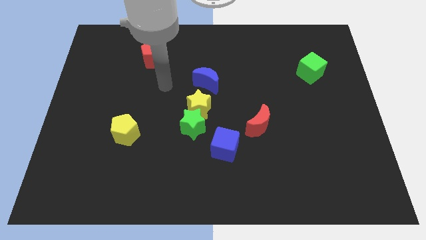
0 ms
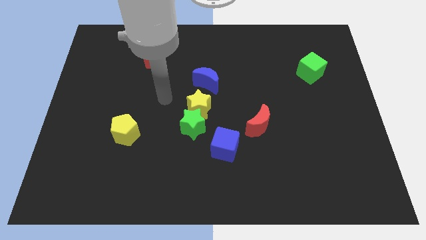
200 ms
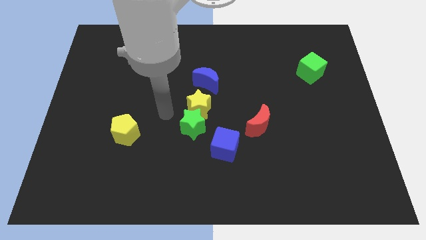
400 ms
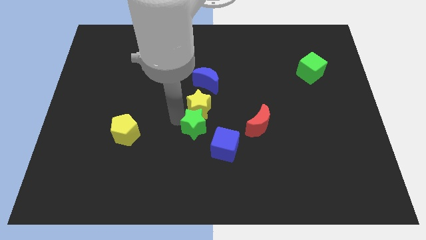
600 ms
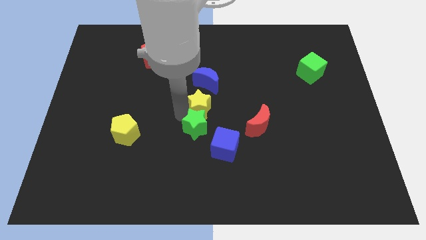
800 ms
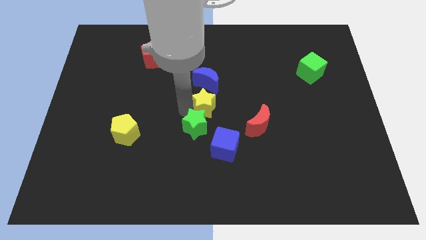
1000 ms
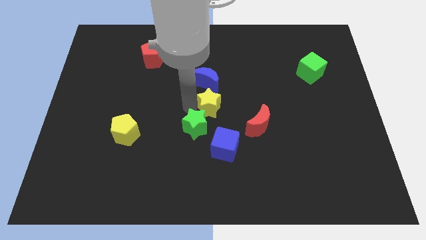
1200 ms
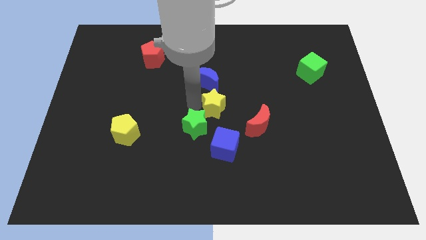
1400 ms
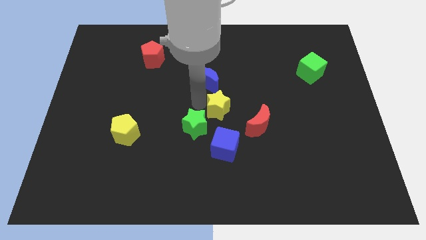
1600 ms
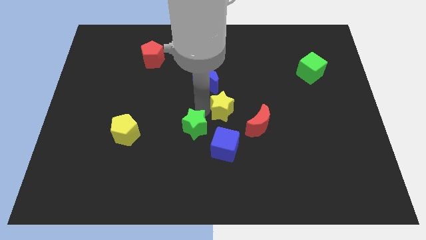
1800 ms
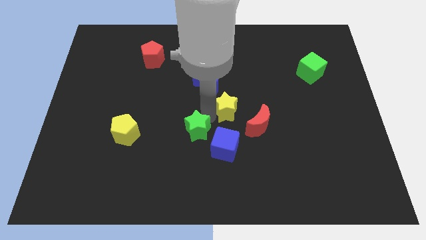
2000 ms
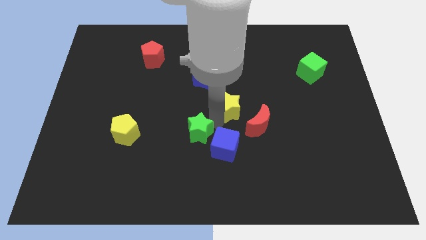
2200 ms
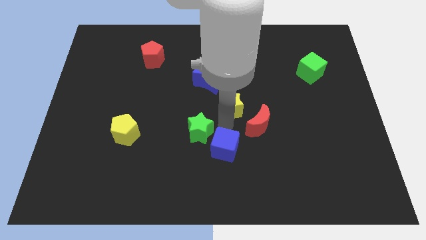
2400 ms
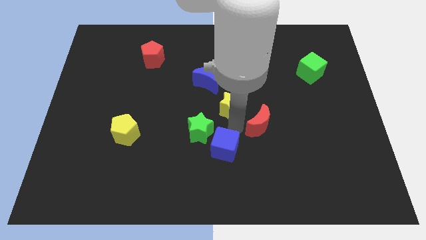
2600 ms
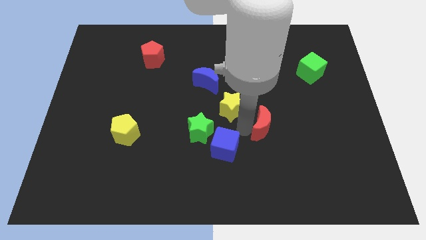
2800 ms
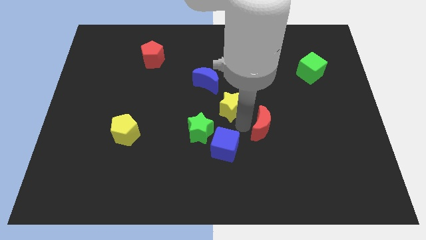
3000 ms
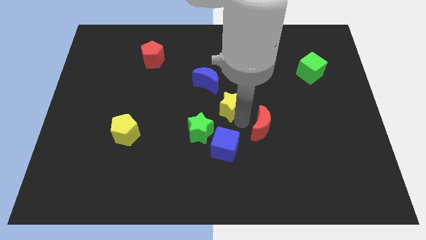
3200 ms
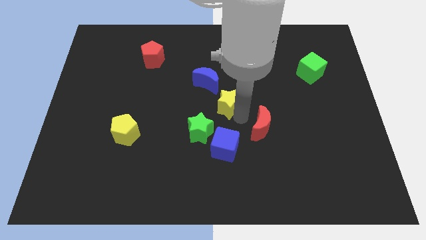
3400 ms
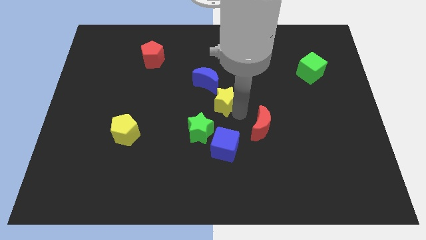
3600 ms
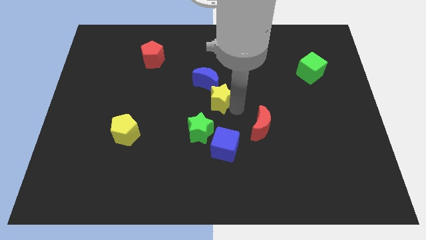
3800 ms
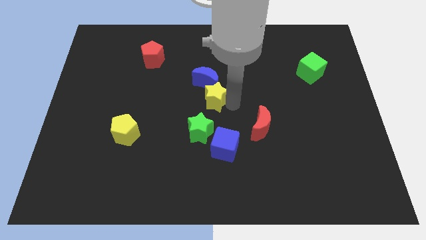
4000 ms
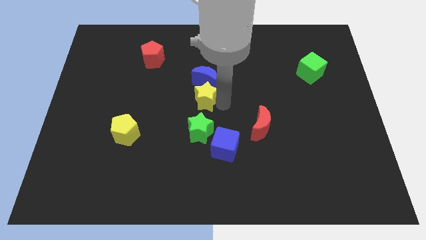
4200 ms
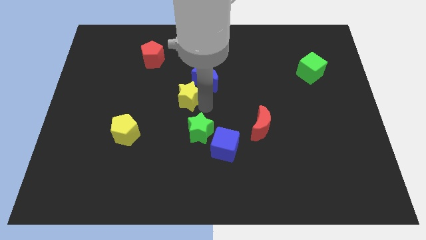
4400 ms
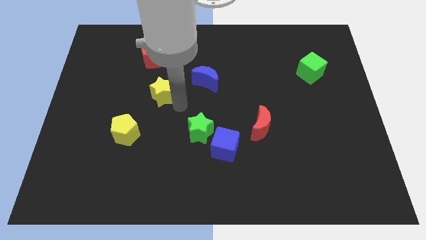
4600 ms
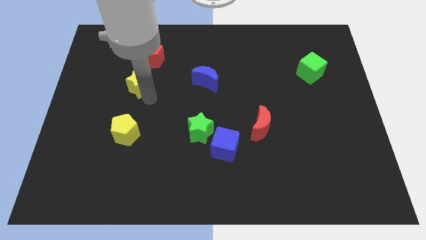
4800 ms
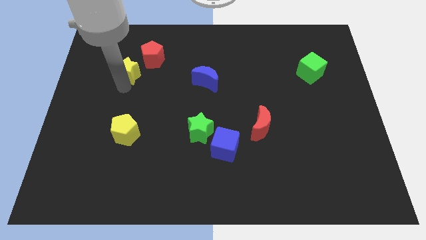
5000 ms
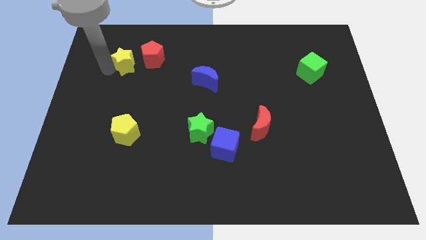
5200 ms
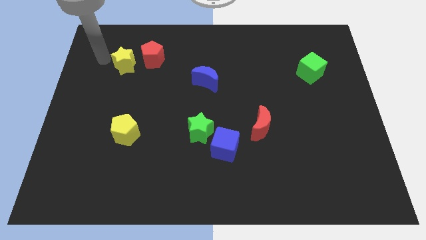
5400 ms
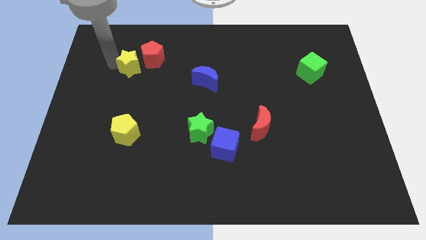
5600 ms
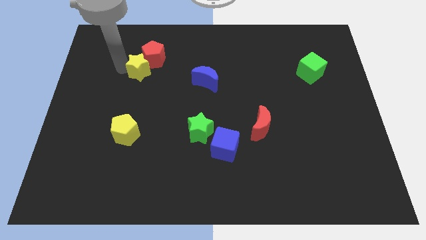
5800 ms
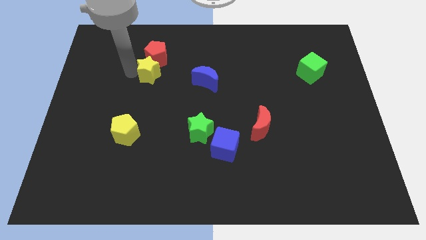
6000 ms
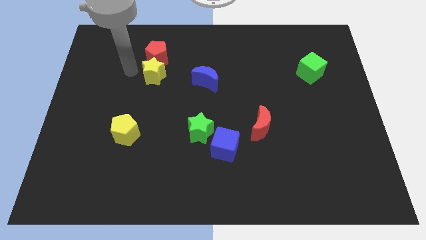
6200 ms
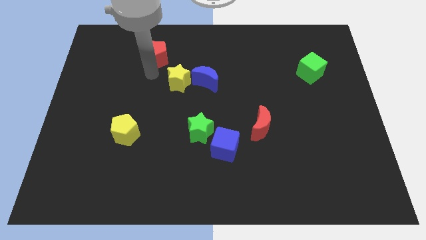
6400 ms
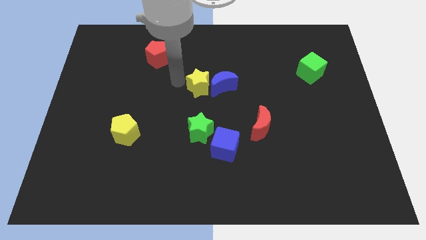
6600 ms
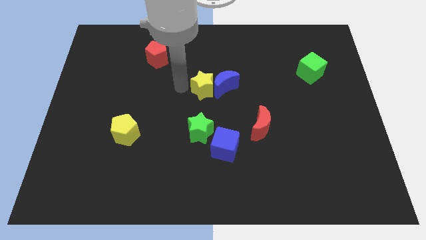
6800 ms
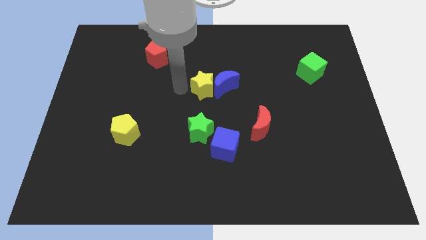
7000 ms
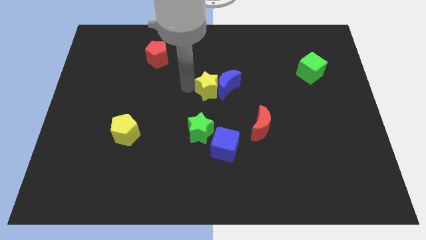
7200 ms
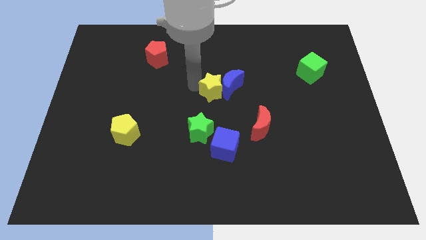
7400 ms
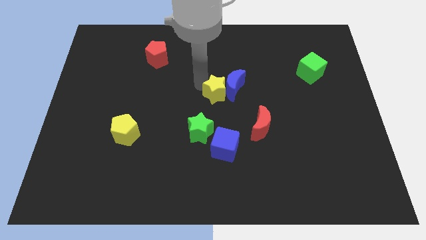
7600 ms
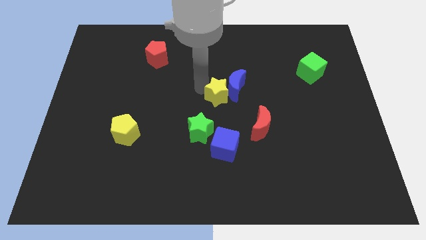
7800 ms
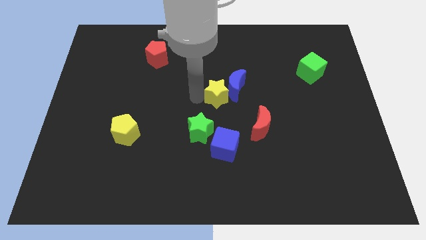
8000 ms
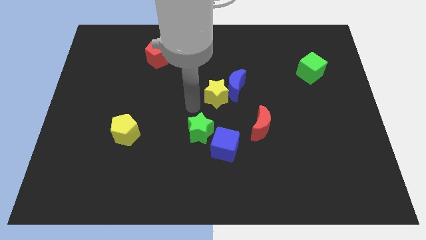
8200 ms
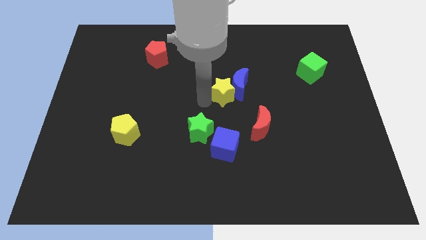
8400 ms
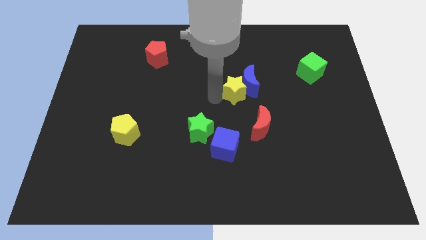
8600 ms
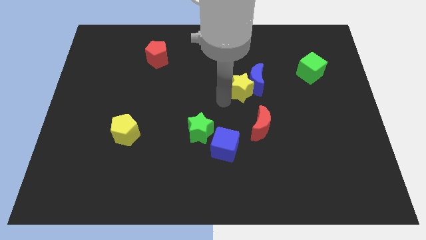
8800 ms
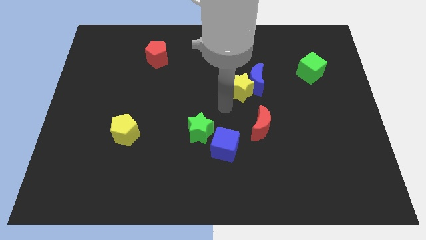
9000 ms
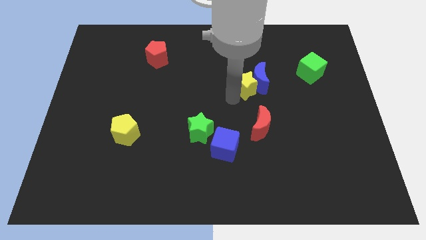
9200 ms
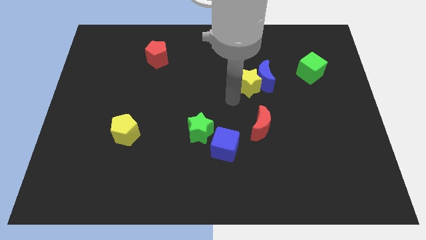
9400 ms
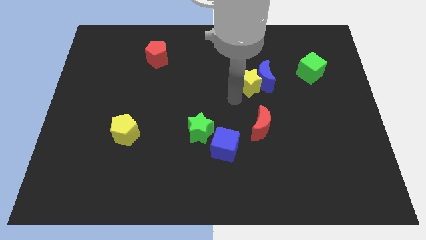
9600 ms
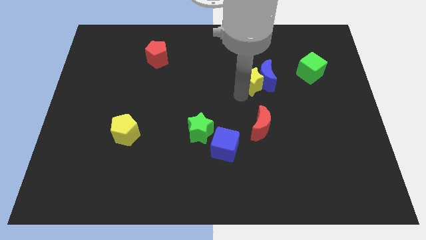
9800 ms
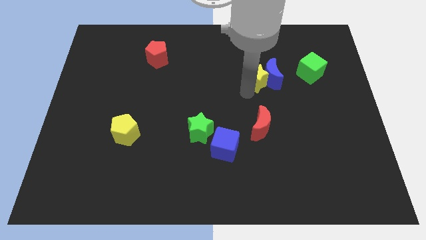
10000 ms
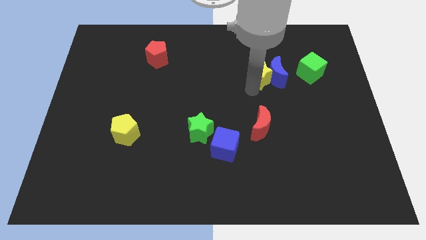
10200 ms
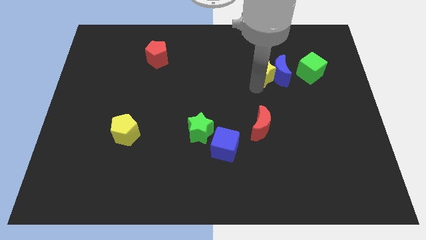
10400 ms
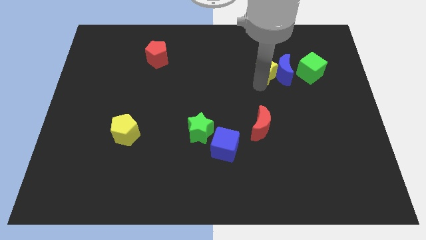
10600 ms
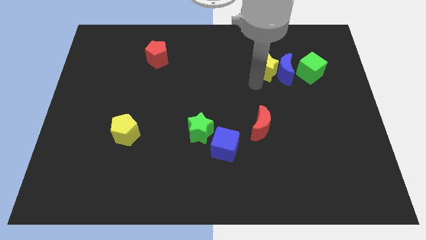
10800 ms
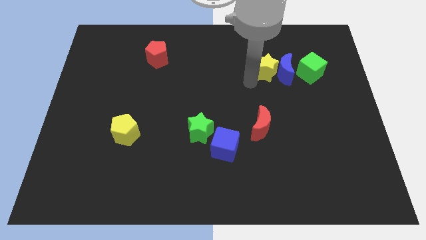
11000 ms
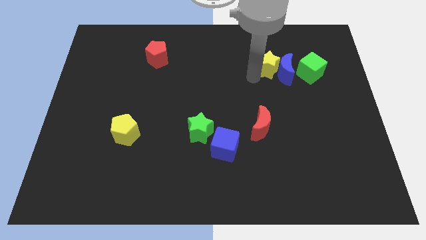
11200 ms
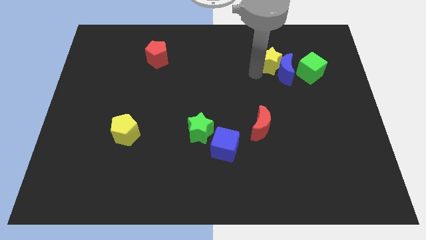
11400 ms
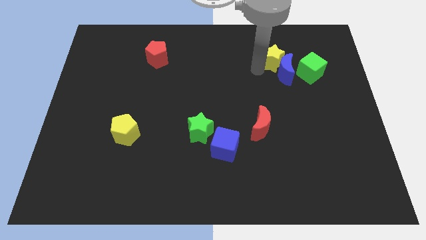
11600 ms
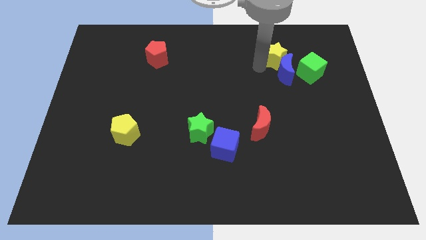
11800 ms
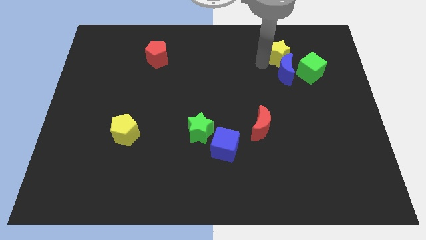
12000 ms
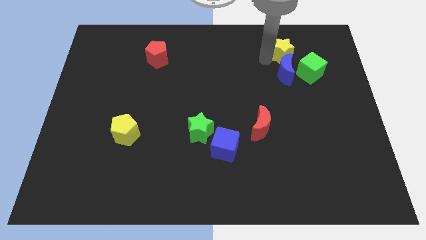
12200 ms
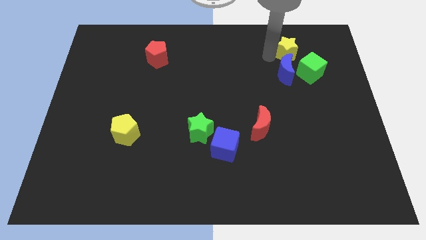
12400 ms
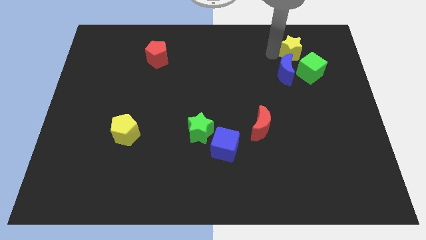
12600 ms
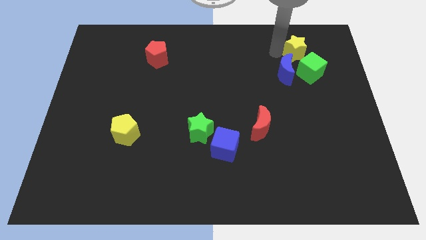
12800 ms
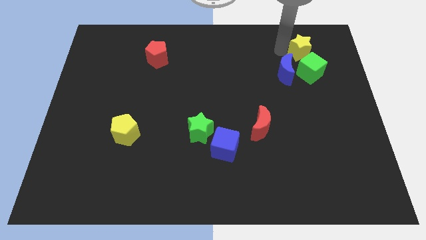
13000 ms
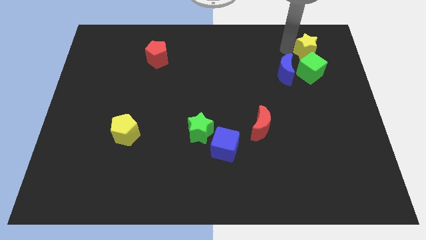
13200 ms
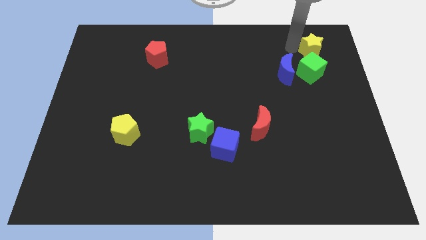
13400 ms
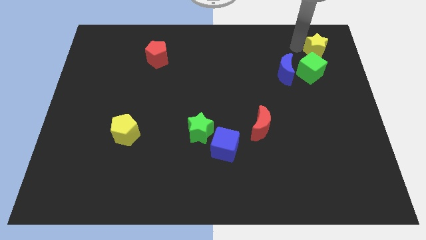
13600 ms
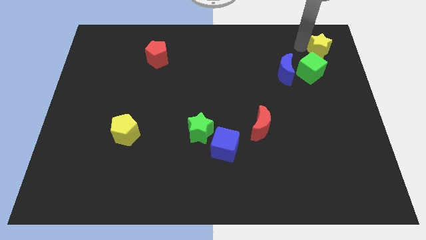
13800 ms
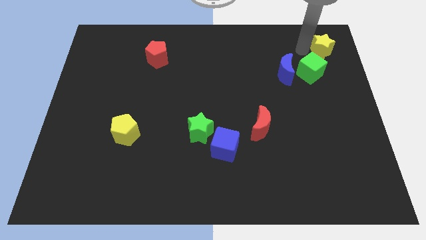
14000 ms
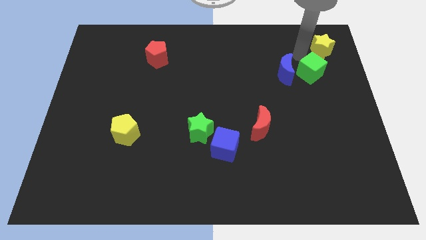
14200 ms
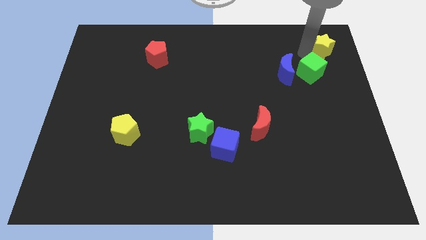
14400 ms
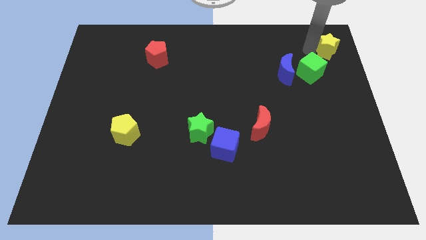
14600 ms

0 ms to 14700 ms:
push the yellow star to the top right
